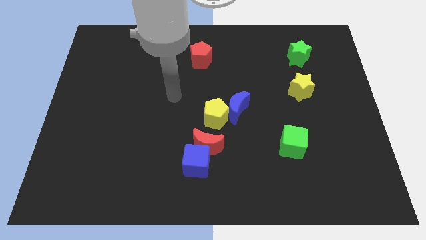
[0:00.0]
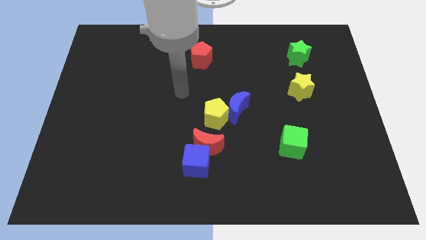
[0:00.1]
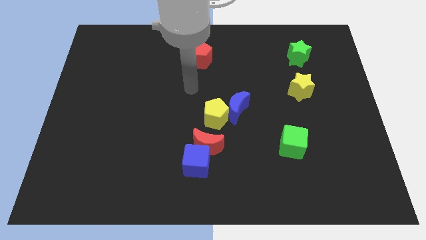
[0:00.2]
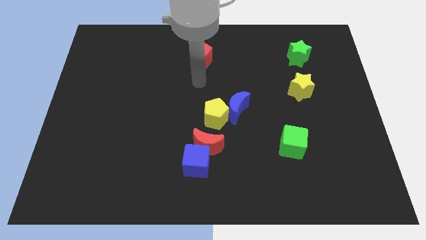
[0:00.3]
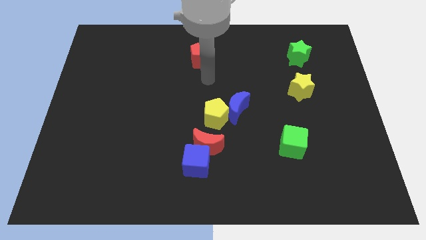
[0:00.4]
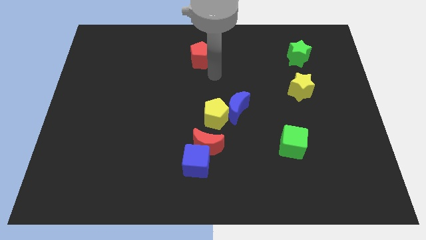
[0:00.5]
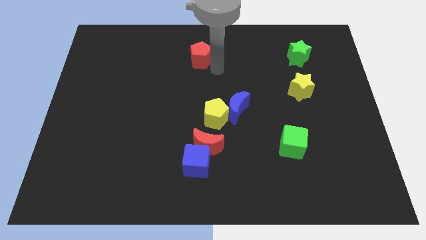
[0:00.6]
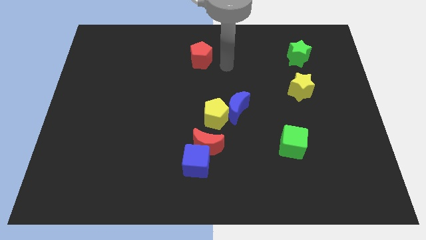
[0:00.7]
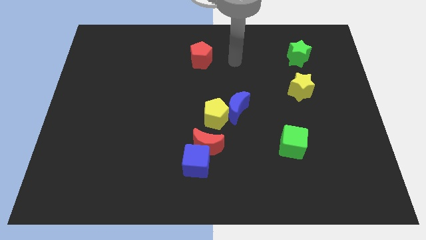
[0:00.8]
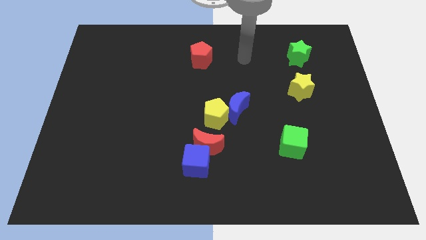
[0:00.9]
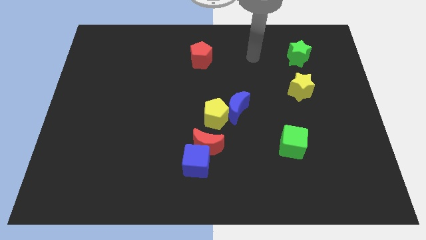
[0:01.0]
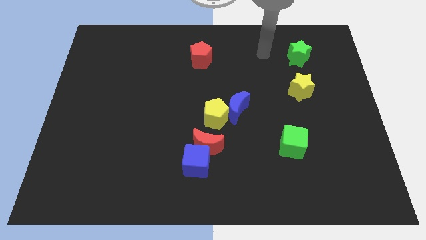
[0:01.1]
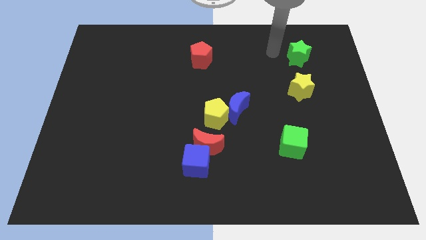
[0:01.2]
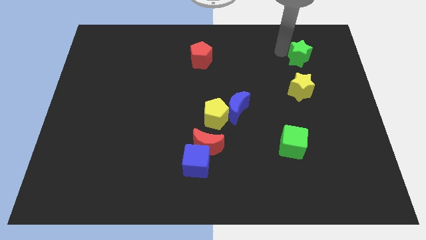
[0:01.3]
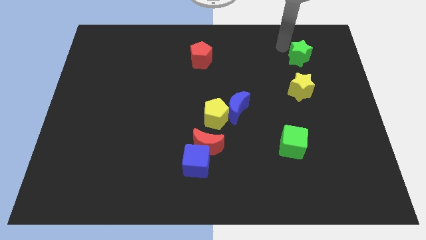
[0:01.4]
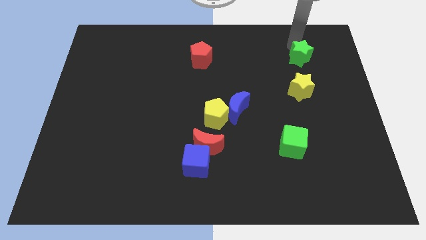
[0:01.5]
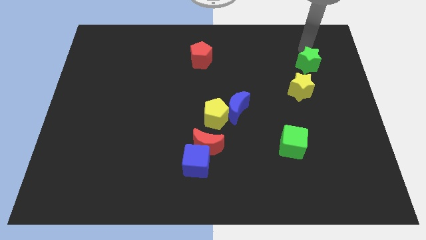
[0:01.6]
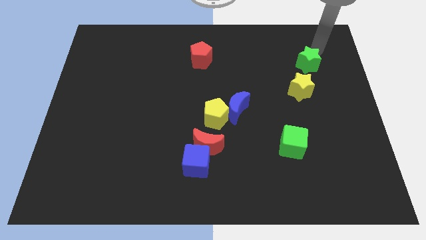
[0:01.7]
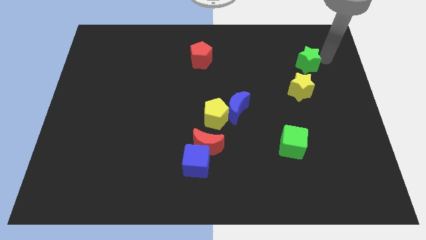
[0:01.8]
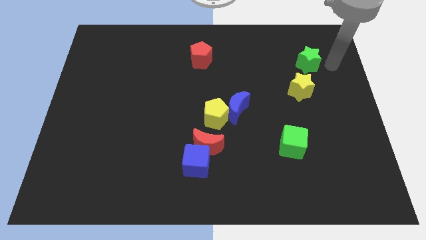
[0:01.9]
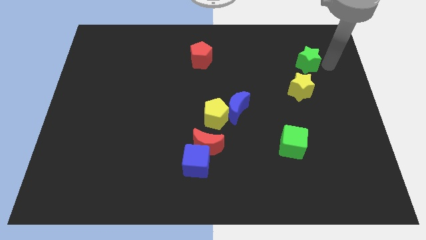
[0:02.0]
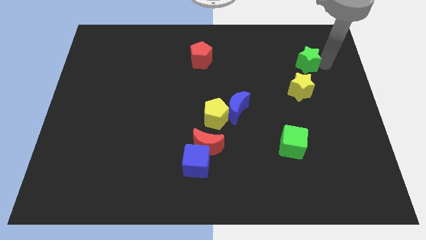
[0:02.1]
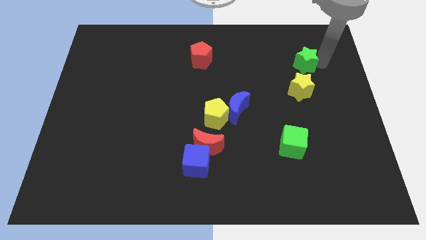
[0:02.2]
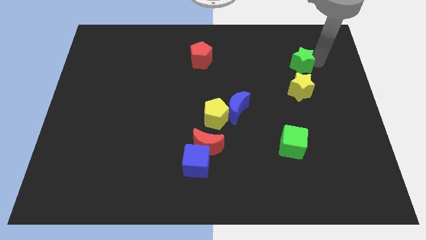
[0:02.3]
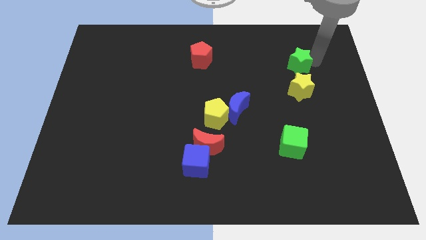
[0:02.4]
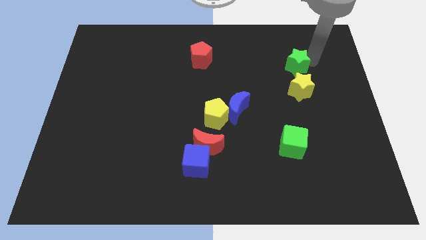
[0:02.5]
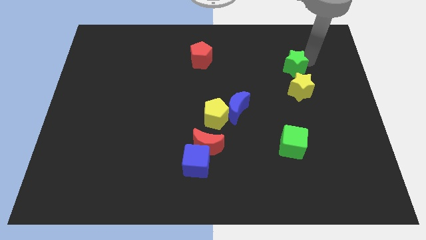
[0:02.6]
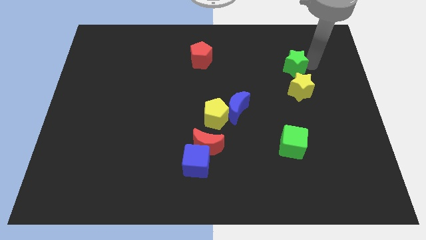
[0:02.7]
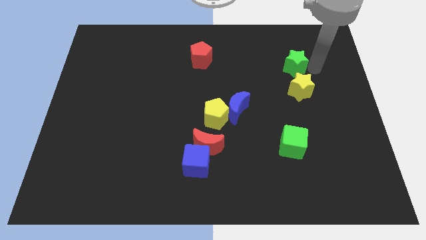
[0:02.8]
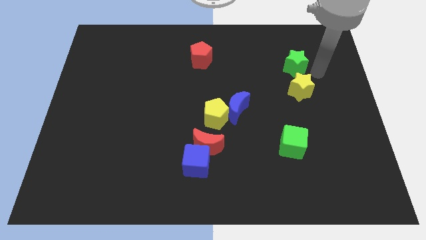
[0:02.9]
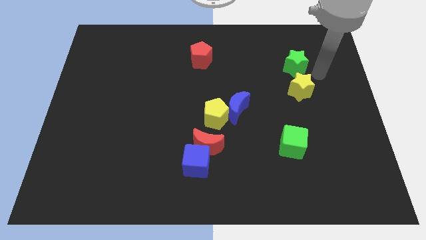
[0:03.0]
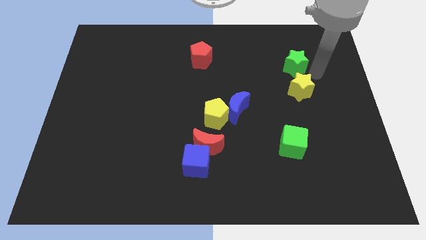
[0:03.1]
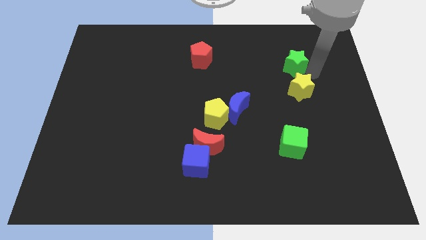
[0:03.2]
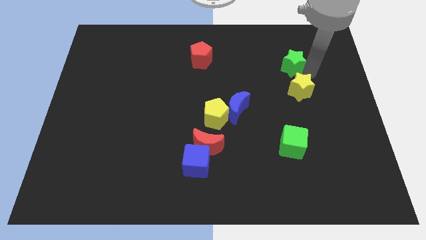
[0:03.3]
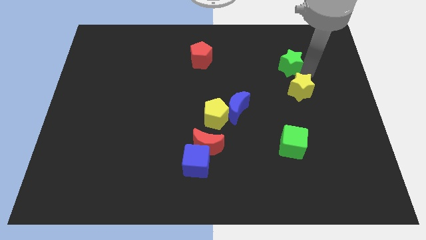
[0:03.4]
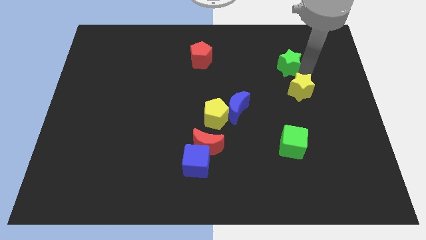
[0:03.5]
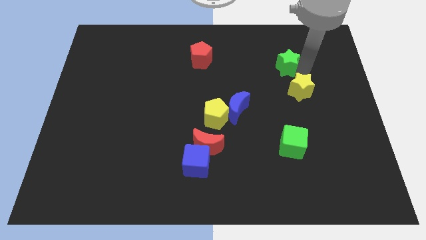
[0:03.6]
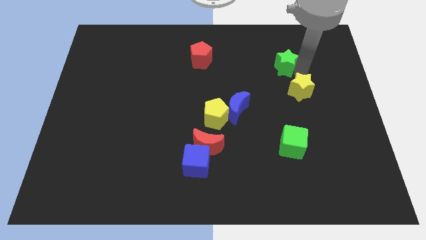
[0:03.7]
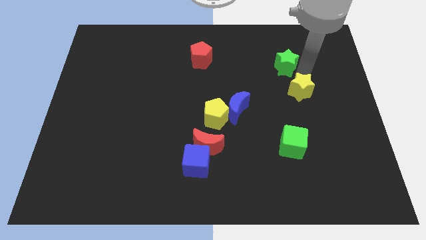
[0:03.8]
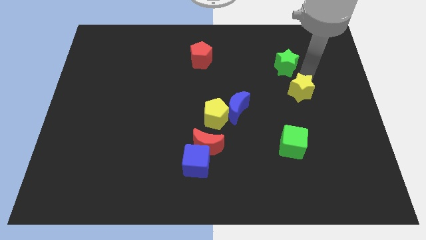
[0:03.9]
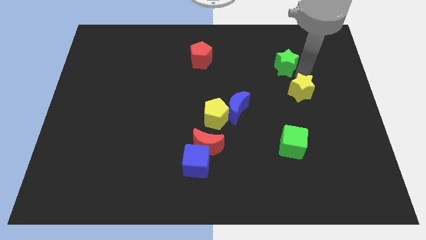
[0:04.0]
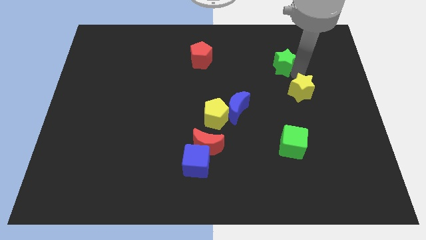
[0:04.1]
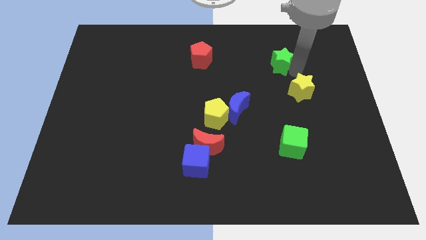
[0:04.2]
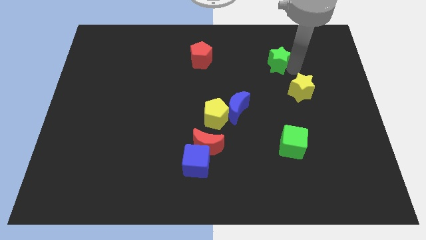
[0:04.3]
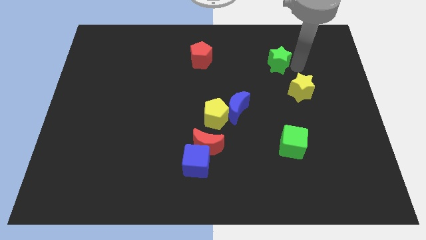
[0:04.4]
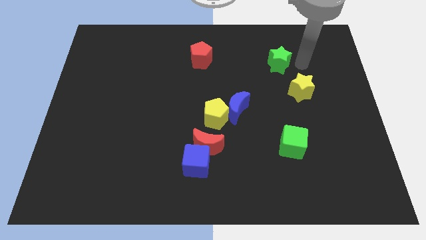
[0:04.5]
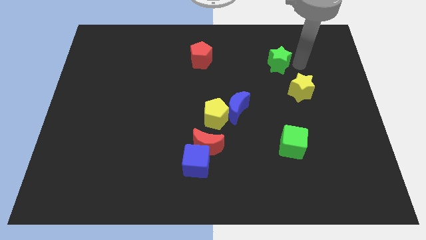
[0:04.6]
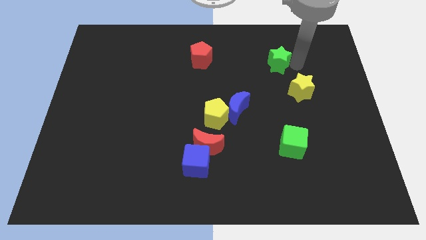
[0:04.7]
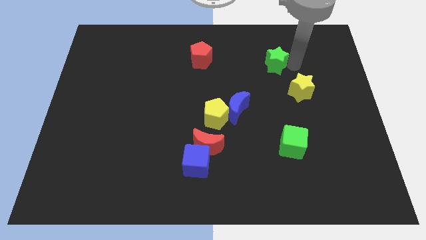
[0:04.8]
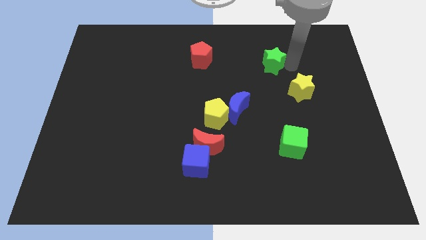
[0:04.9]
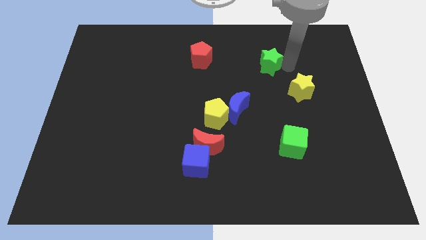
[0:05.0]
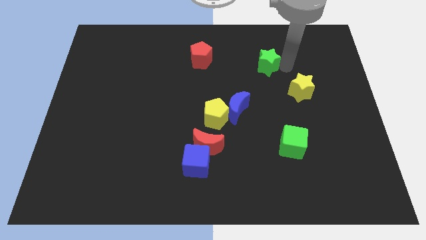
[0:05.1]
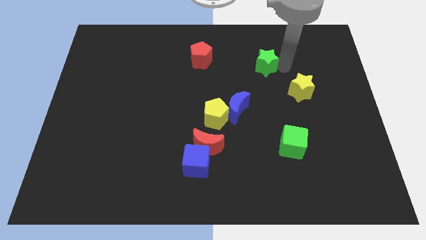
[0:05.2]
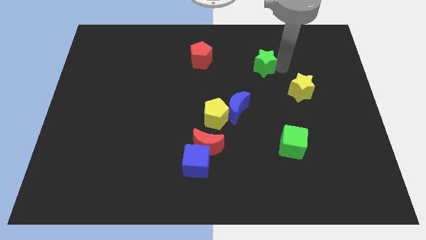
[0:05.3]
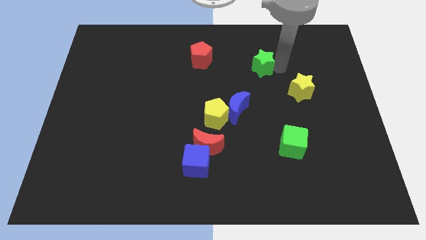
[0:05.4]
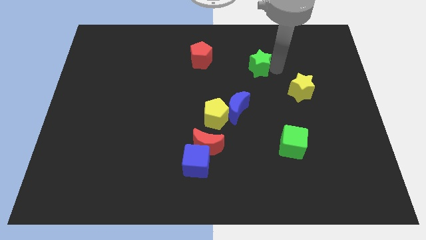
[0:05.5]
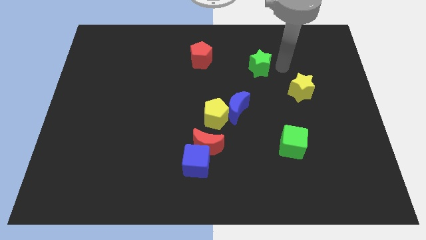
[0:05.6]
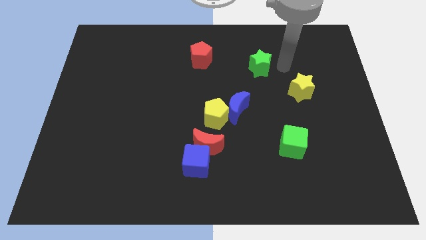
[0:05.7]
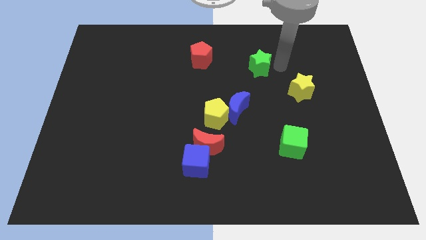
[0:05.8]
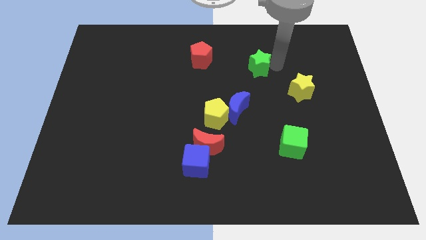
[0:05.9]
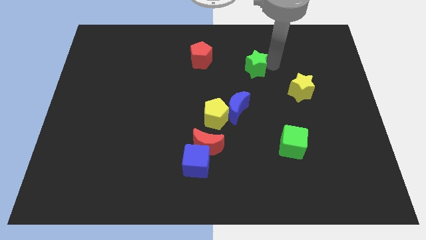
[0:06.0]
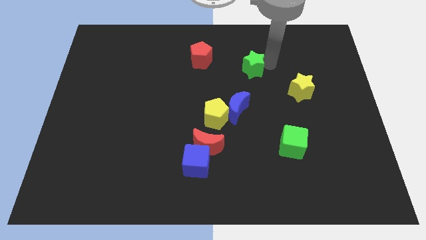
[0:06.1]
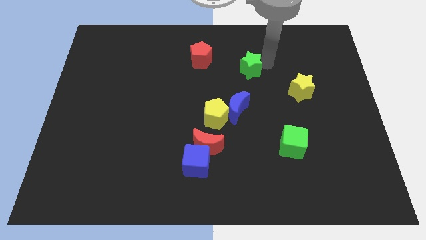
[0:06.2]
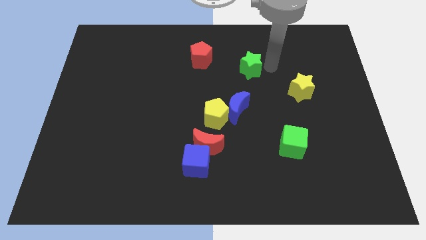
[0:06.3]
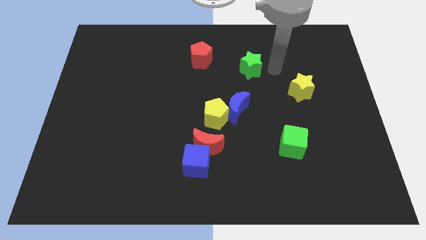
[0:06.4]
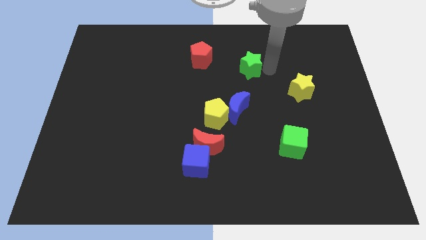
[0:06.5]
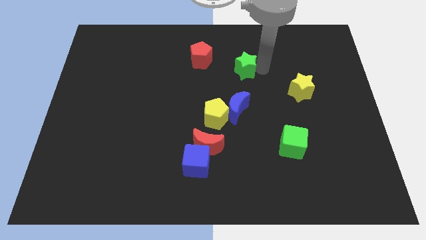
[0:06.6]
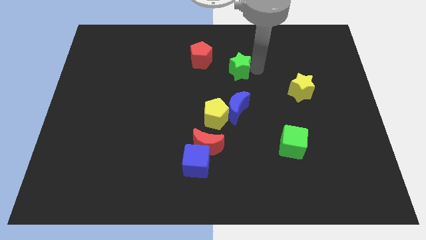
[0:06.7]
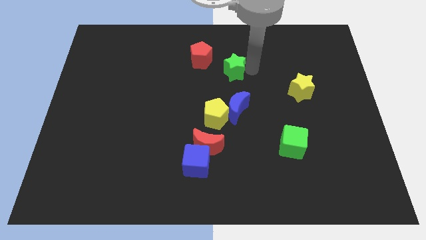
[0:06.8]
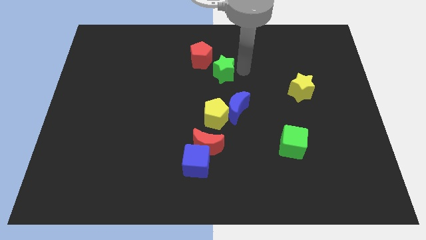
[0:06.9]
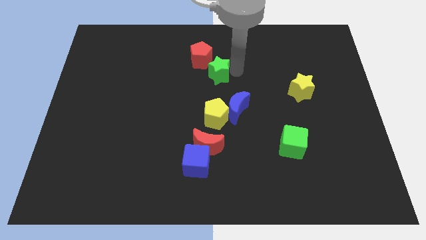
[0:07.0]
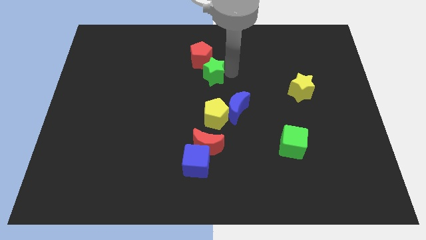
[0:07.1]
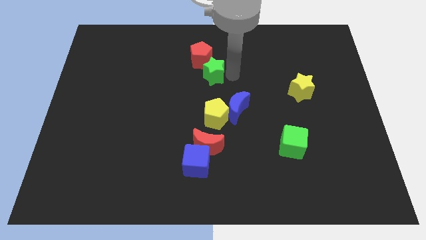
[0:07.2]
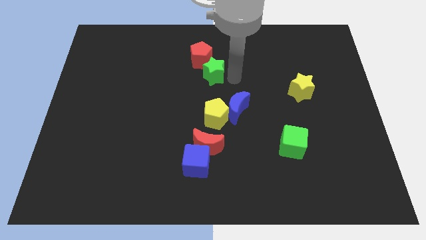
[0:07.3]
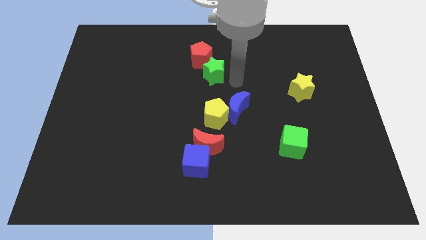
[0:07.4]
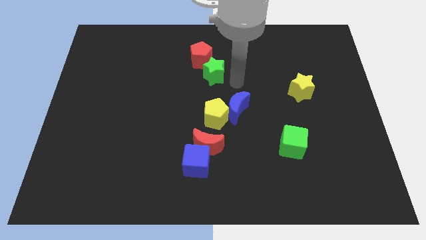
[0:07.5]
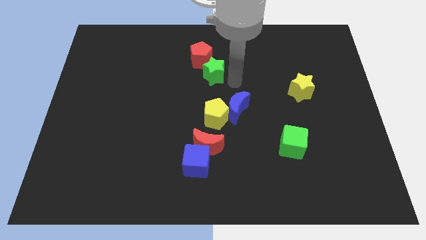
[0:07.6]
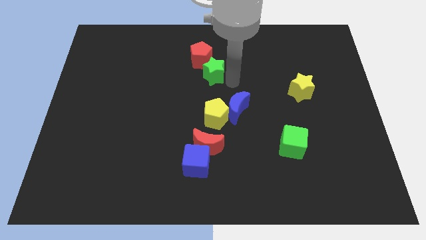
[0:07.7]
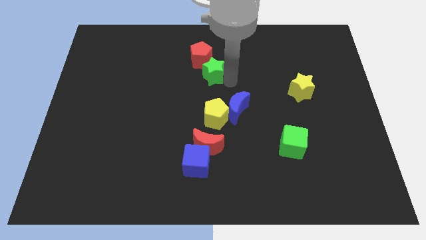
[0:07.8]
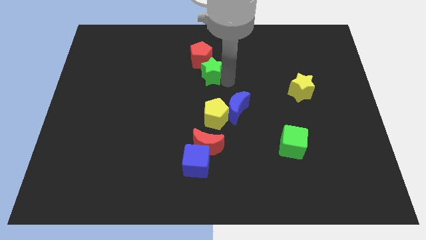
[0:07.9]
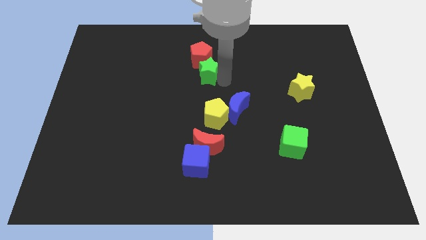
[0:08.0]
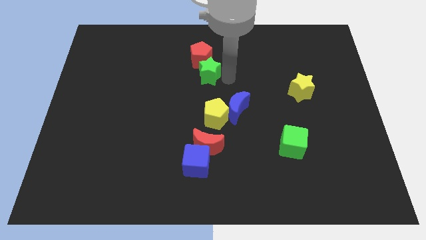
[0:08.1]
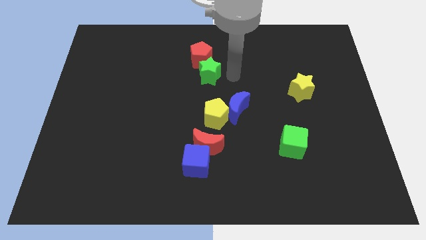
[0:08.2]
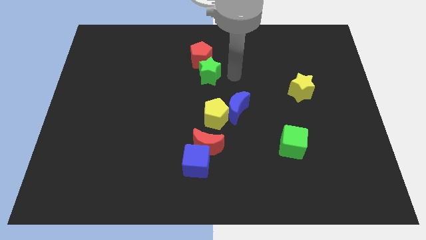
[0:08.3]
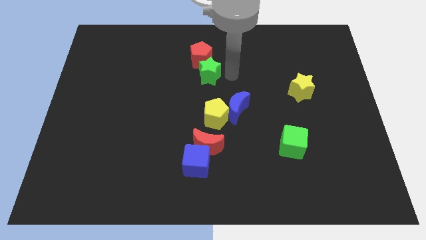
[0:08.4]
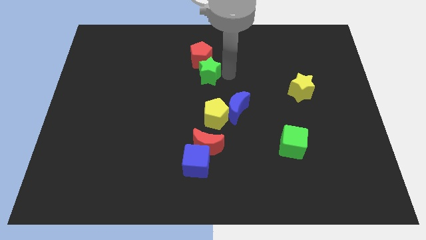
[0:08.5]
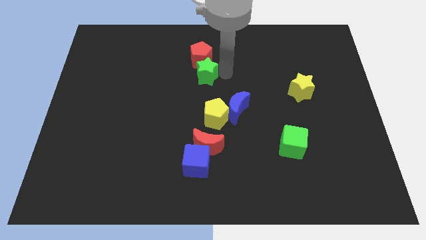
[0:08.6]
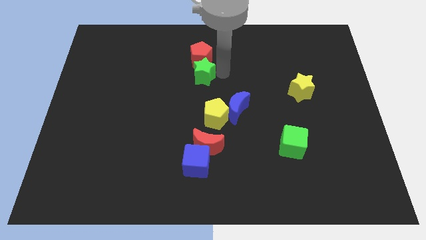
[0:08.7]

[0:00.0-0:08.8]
put the green star to the bottom left side of the red pentagon
